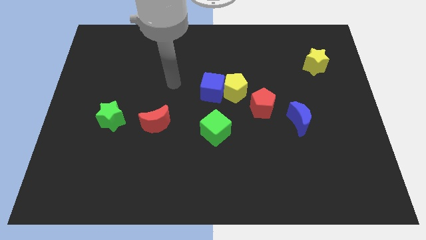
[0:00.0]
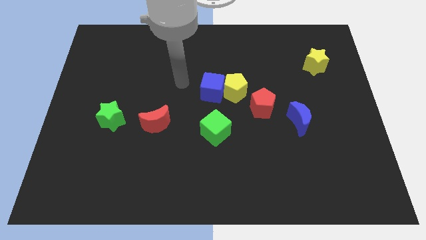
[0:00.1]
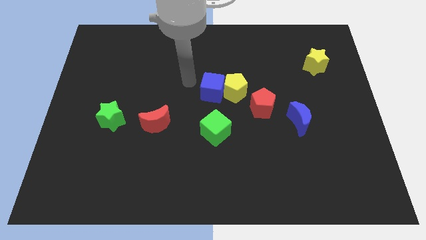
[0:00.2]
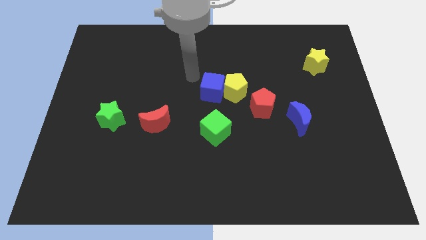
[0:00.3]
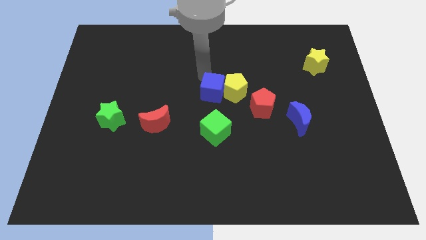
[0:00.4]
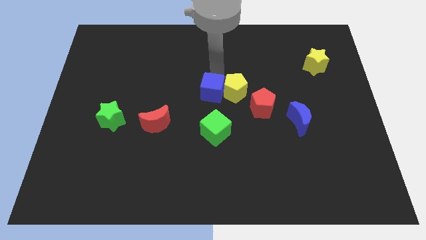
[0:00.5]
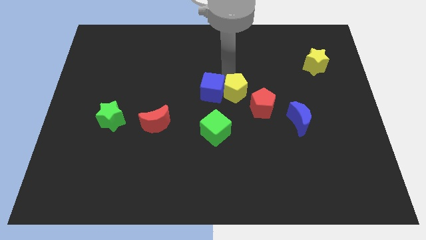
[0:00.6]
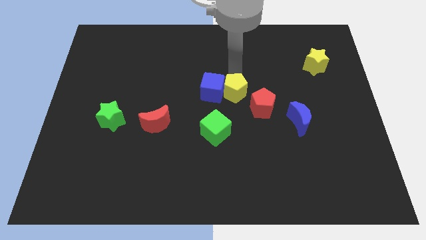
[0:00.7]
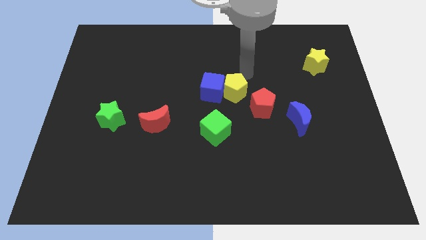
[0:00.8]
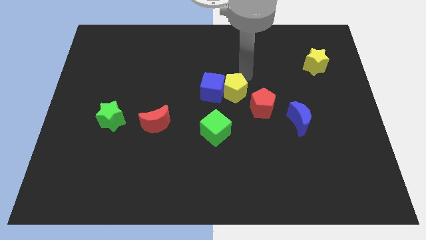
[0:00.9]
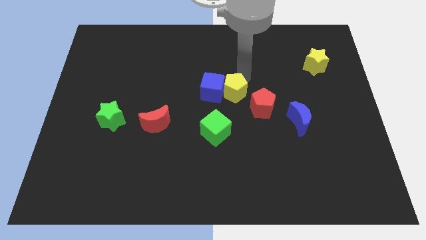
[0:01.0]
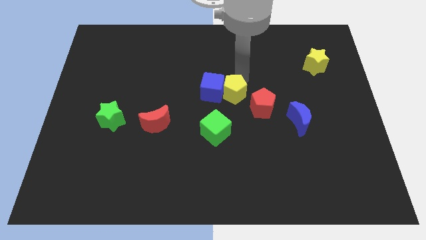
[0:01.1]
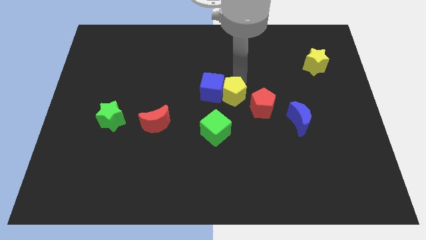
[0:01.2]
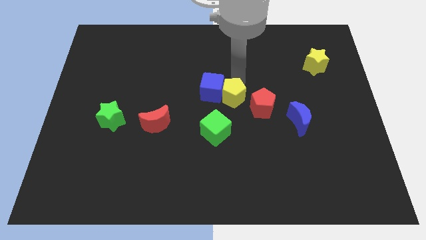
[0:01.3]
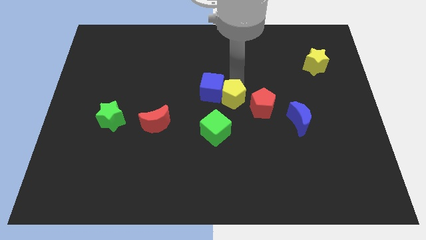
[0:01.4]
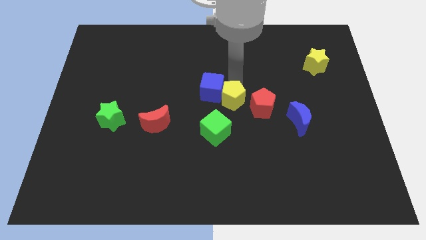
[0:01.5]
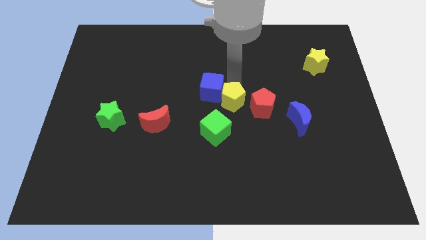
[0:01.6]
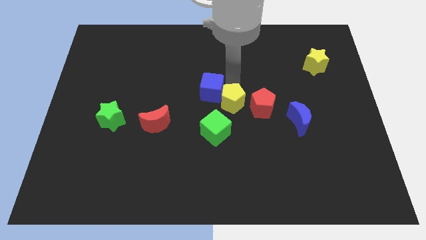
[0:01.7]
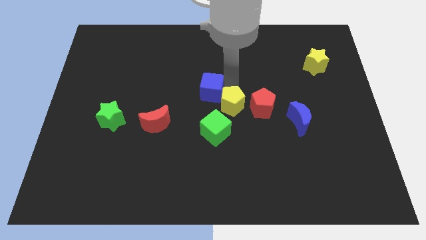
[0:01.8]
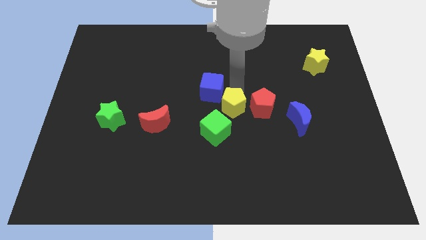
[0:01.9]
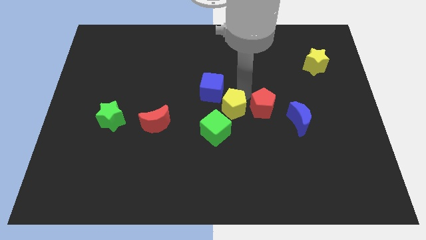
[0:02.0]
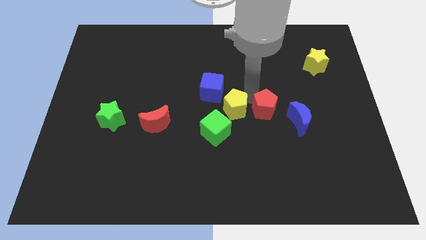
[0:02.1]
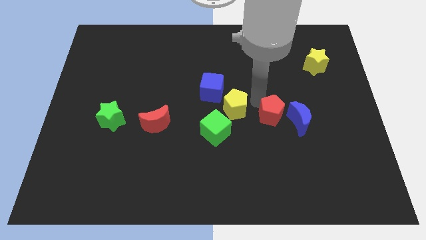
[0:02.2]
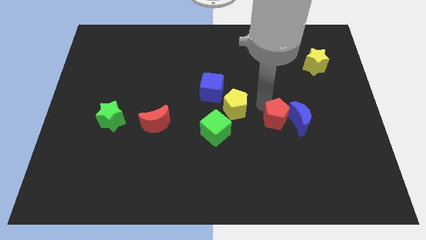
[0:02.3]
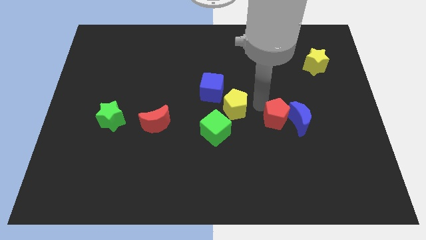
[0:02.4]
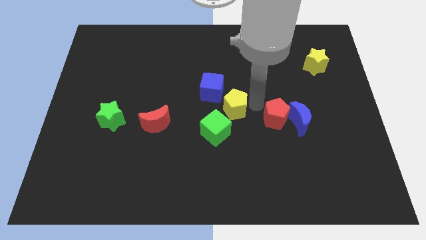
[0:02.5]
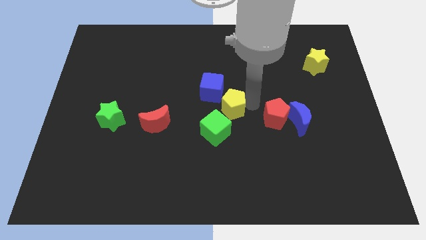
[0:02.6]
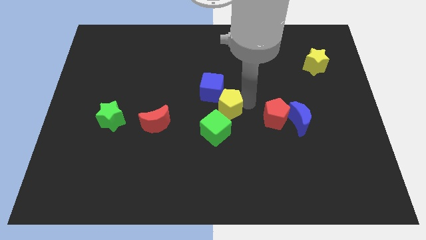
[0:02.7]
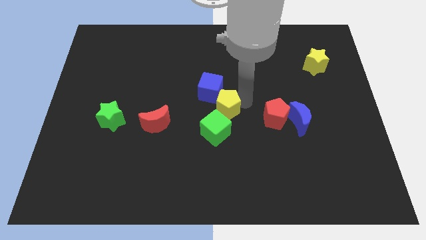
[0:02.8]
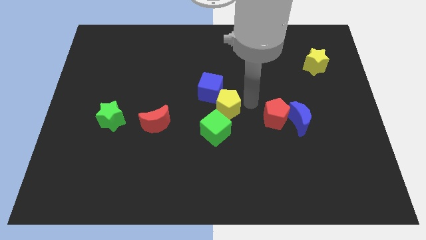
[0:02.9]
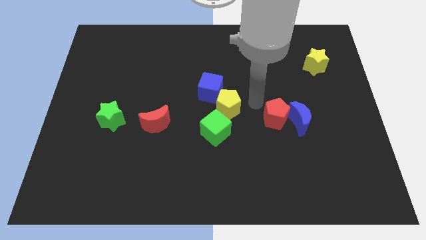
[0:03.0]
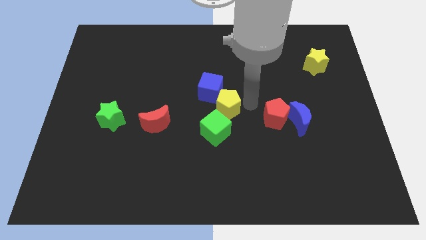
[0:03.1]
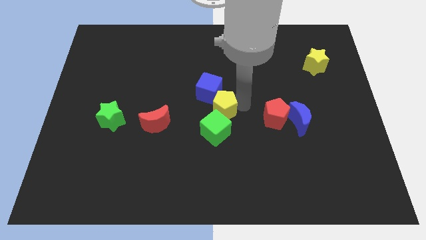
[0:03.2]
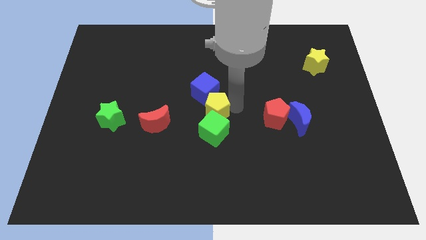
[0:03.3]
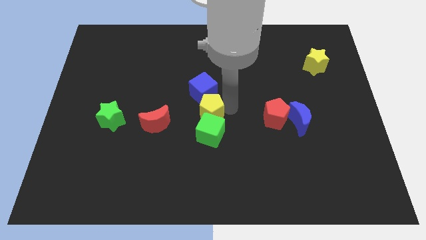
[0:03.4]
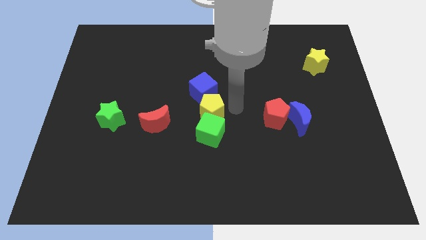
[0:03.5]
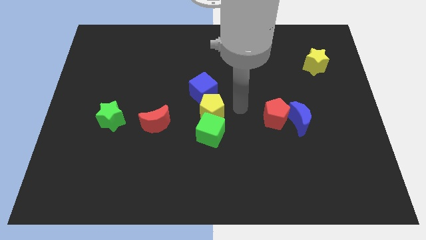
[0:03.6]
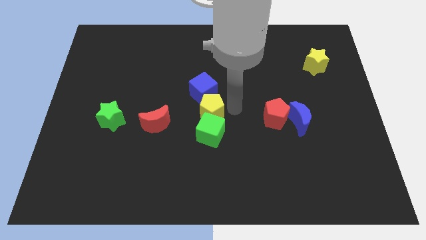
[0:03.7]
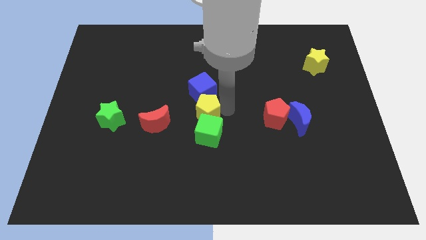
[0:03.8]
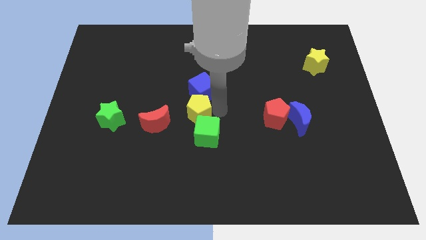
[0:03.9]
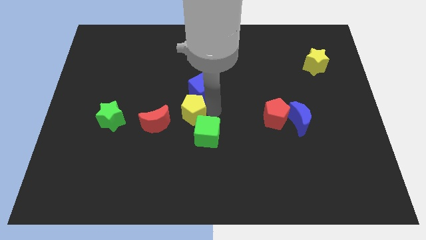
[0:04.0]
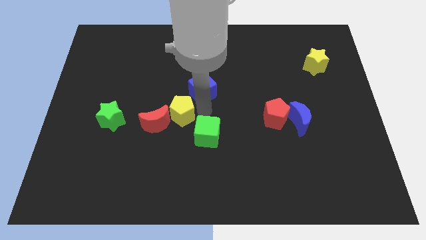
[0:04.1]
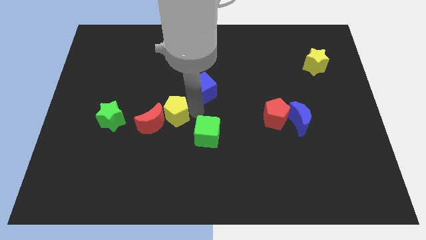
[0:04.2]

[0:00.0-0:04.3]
move the yellow pentagon towards the red moon

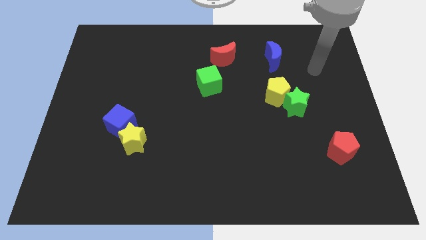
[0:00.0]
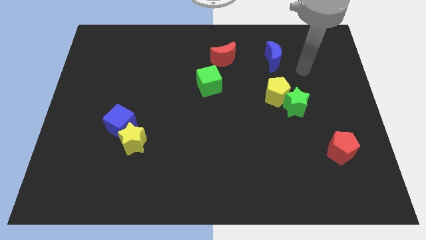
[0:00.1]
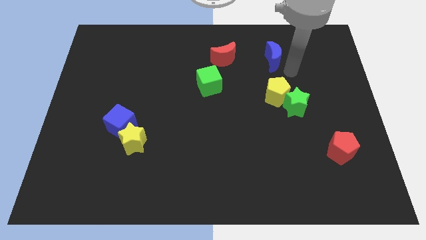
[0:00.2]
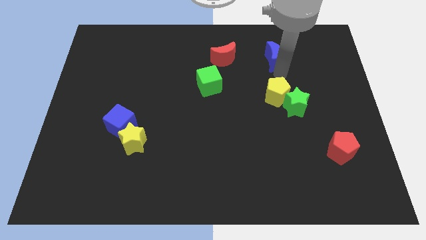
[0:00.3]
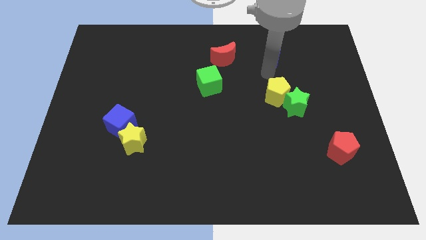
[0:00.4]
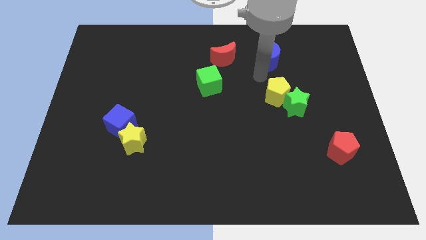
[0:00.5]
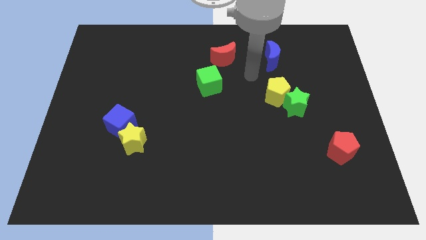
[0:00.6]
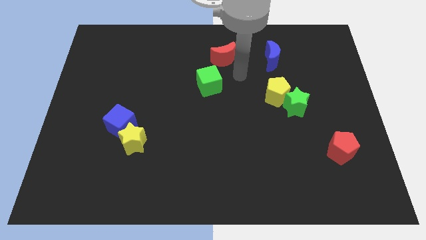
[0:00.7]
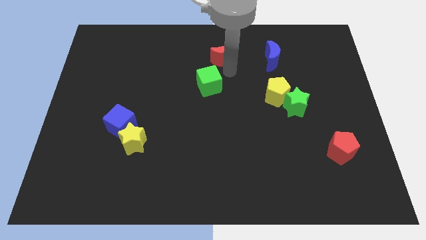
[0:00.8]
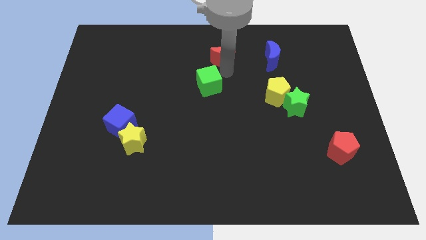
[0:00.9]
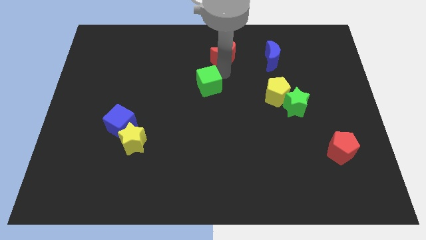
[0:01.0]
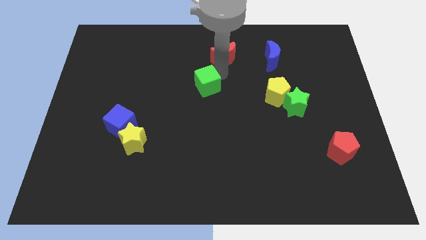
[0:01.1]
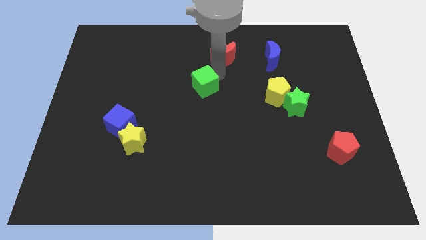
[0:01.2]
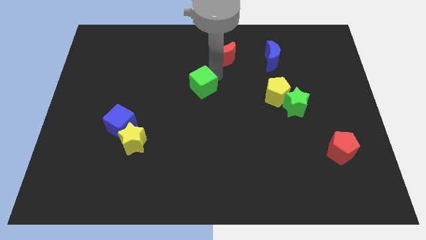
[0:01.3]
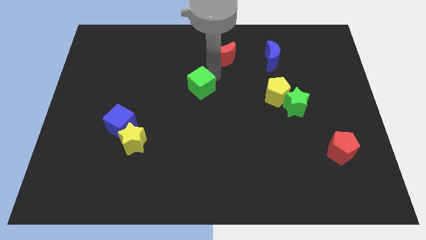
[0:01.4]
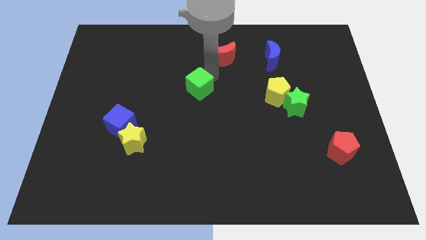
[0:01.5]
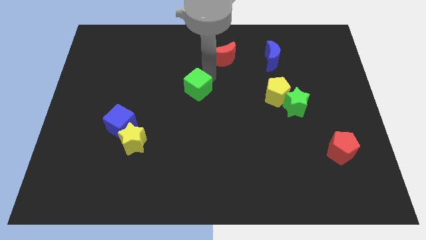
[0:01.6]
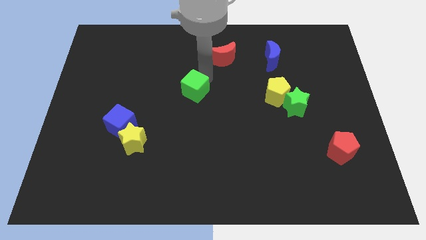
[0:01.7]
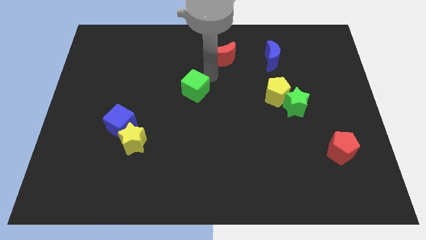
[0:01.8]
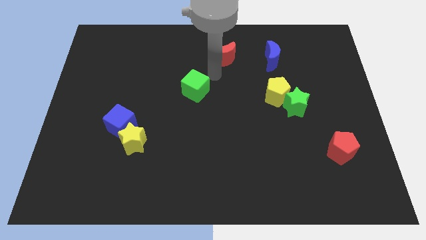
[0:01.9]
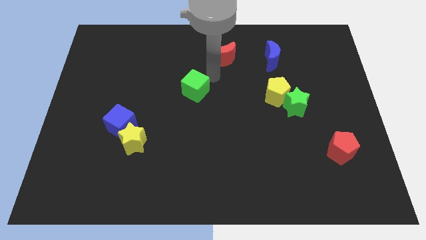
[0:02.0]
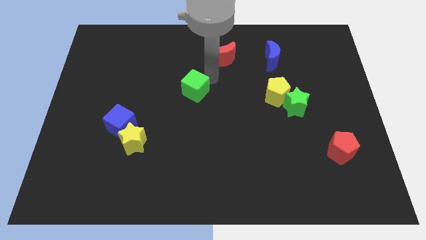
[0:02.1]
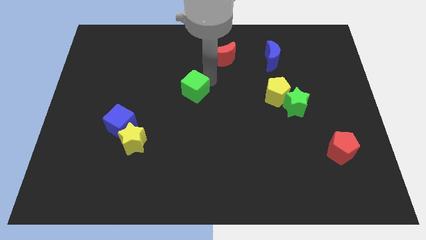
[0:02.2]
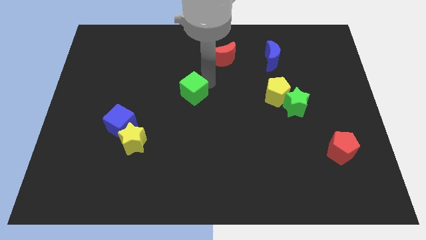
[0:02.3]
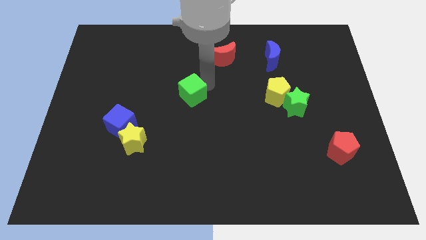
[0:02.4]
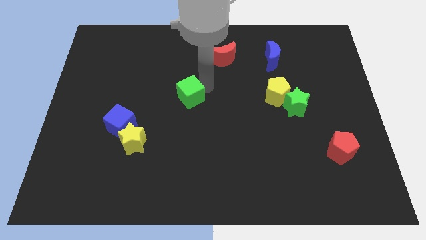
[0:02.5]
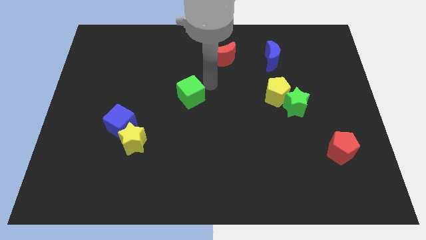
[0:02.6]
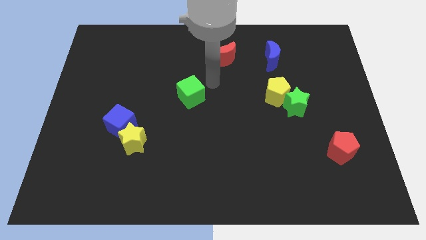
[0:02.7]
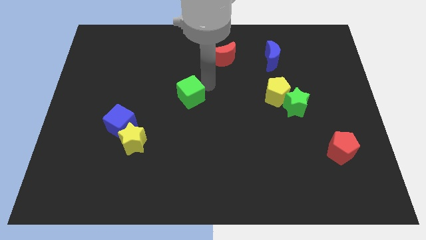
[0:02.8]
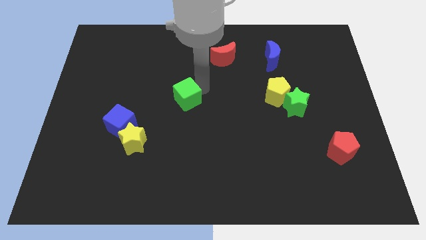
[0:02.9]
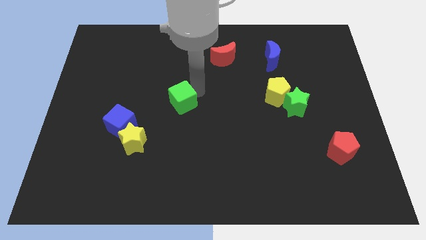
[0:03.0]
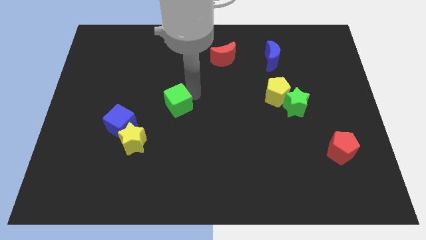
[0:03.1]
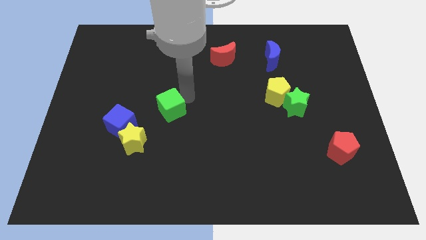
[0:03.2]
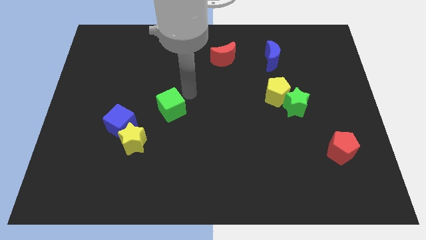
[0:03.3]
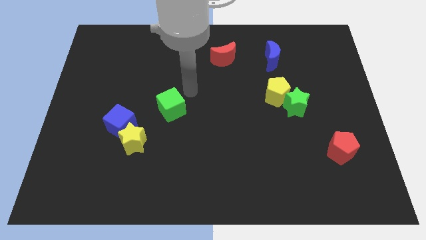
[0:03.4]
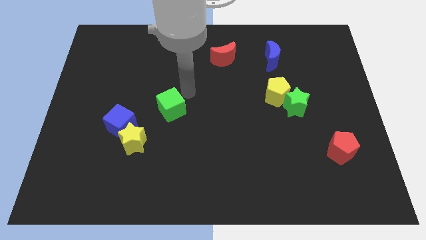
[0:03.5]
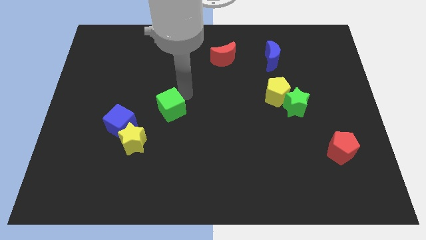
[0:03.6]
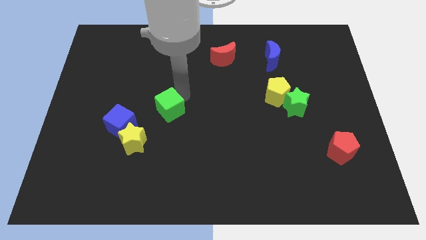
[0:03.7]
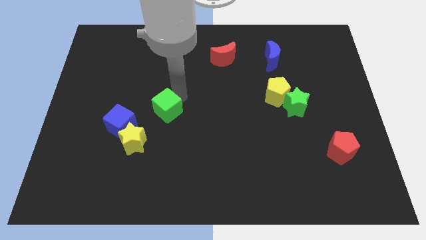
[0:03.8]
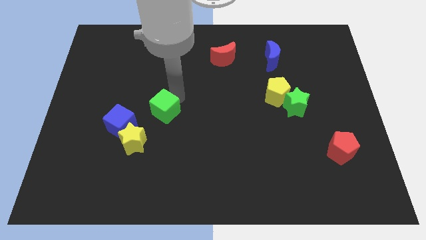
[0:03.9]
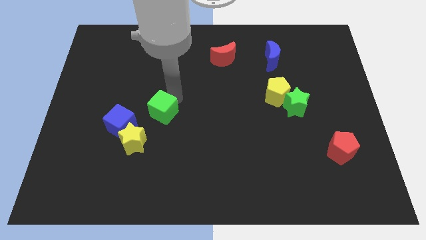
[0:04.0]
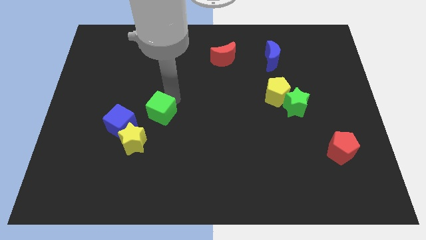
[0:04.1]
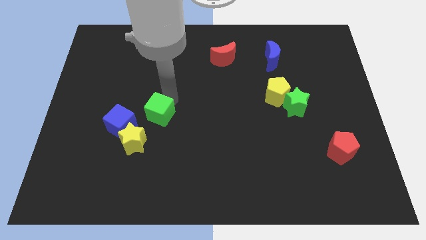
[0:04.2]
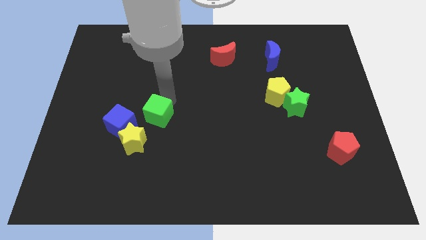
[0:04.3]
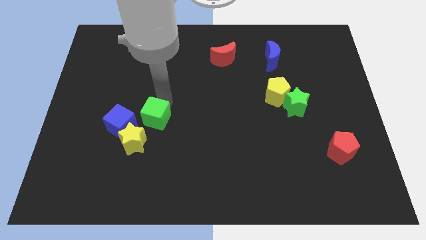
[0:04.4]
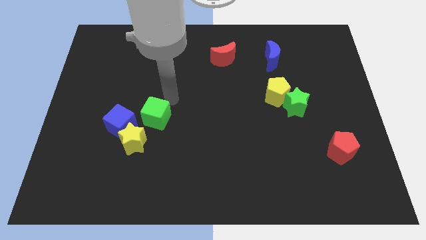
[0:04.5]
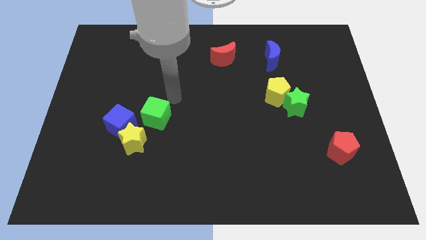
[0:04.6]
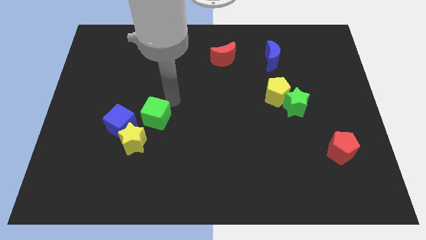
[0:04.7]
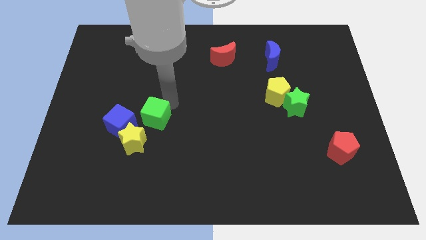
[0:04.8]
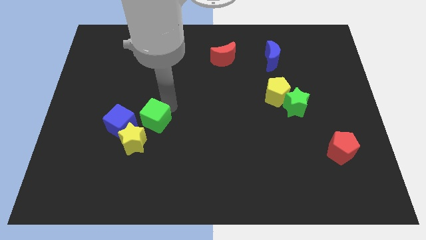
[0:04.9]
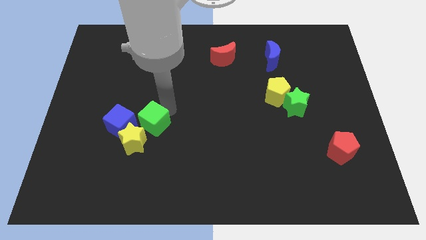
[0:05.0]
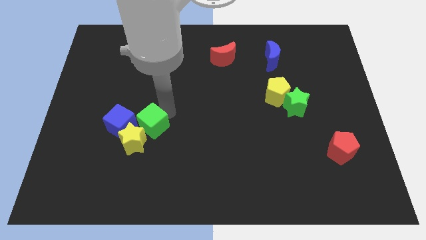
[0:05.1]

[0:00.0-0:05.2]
put the green cube next to the yellow star
